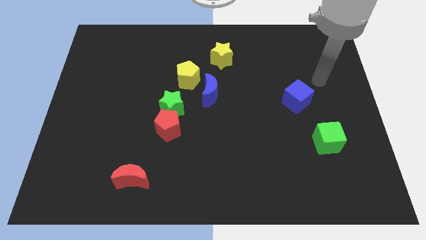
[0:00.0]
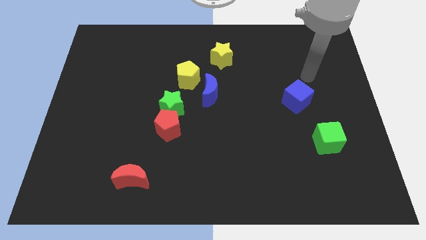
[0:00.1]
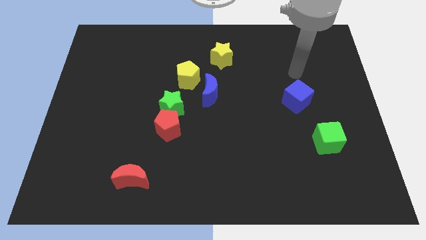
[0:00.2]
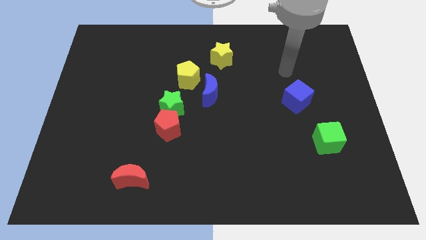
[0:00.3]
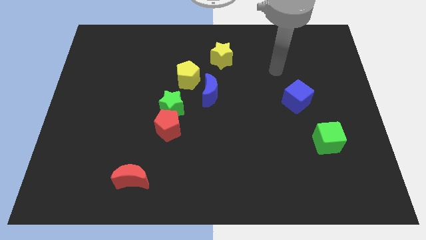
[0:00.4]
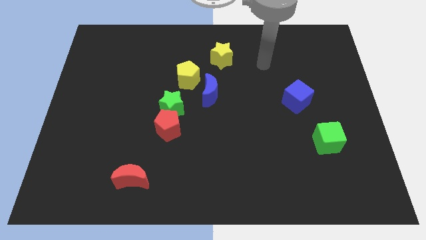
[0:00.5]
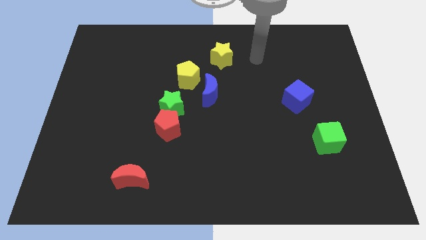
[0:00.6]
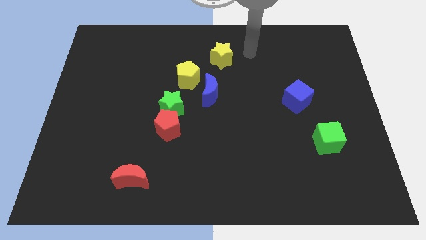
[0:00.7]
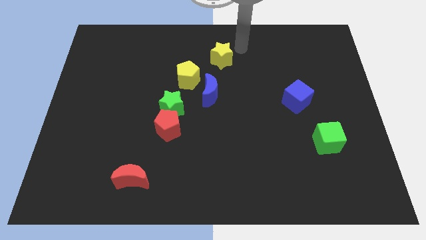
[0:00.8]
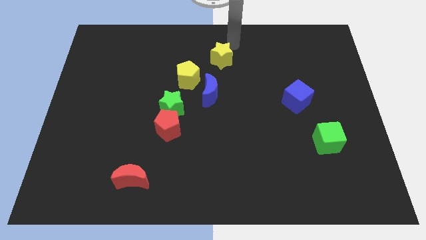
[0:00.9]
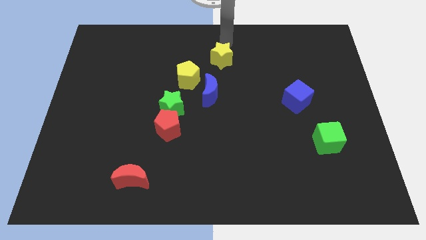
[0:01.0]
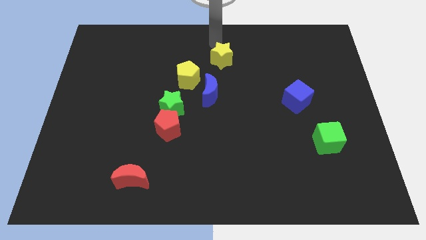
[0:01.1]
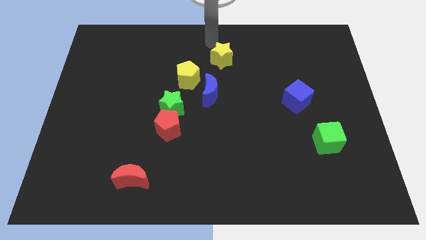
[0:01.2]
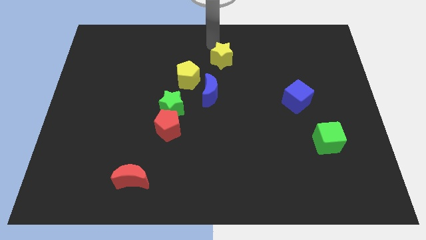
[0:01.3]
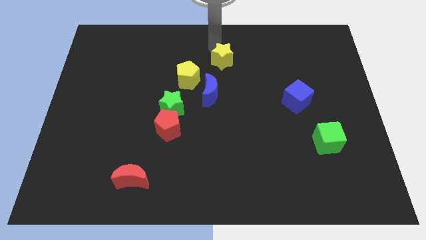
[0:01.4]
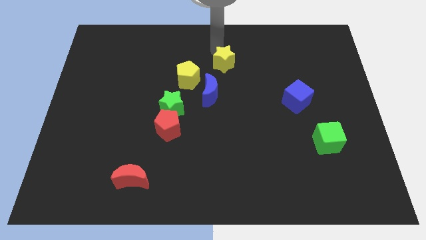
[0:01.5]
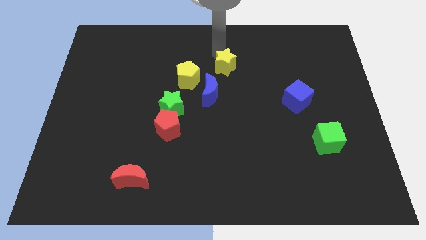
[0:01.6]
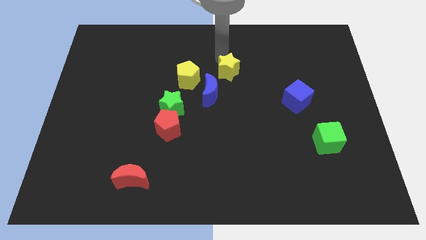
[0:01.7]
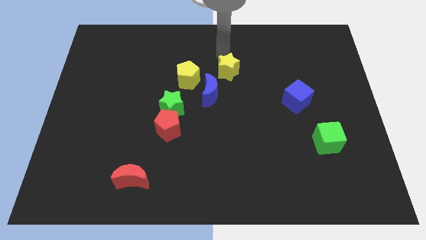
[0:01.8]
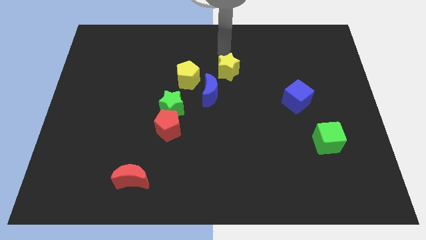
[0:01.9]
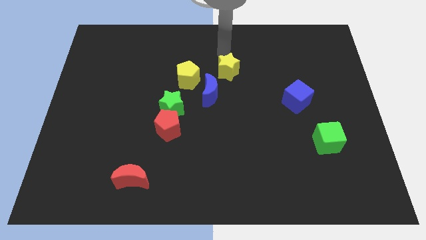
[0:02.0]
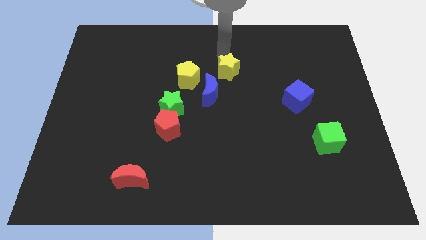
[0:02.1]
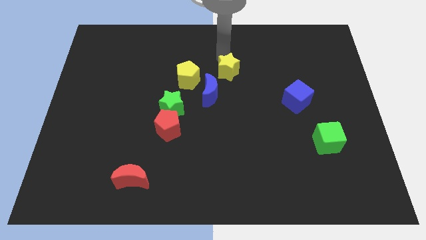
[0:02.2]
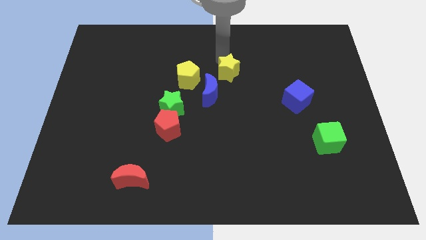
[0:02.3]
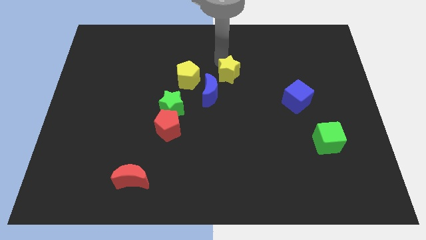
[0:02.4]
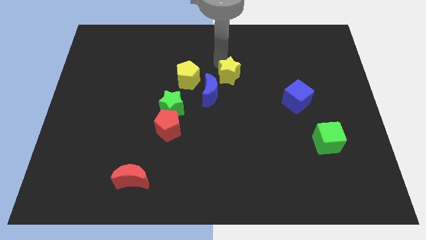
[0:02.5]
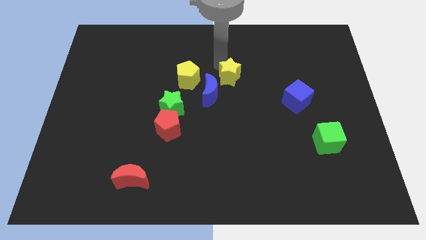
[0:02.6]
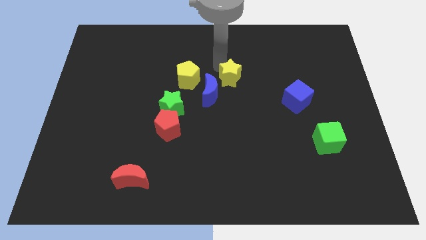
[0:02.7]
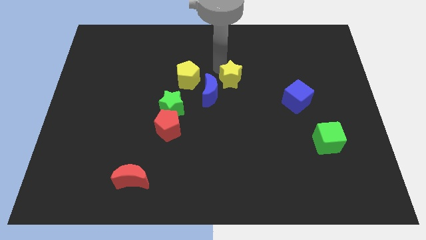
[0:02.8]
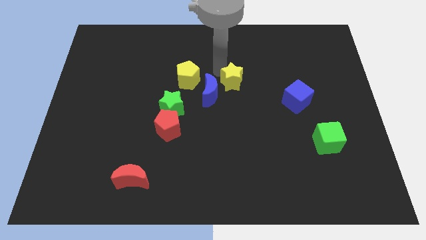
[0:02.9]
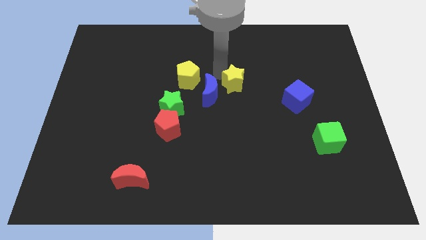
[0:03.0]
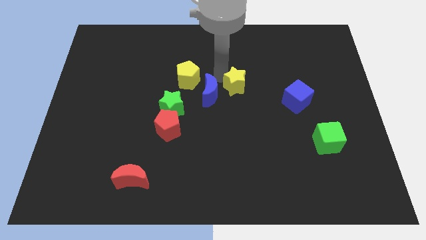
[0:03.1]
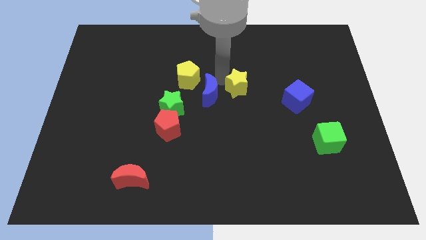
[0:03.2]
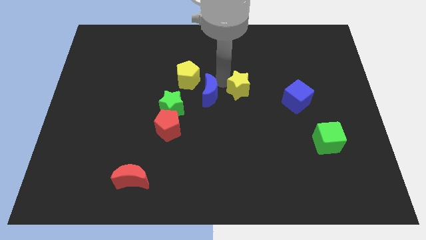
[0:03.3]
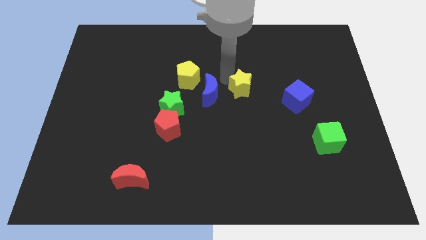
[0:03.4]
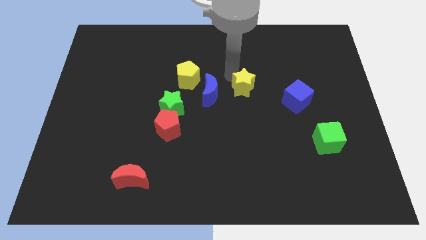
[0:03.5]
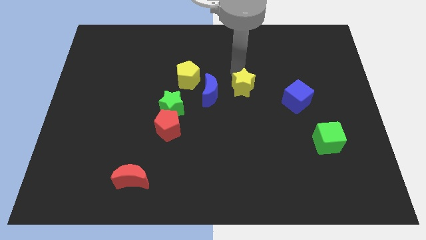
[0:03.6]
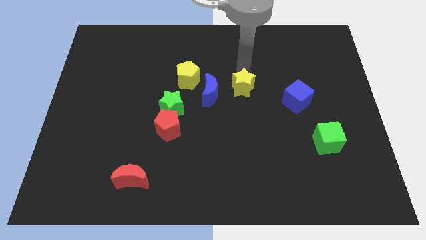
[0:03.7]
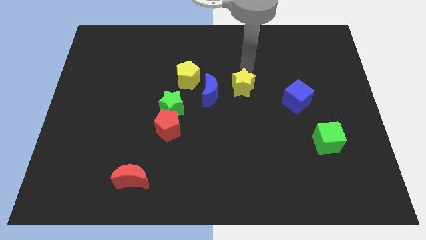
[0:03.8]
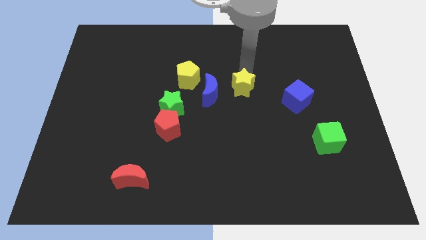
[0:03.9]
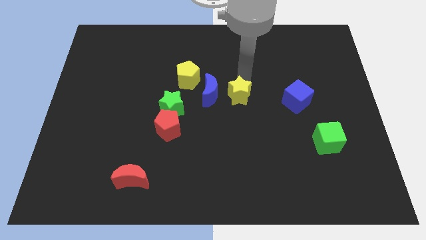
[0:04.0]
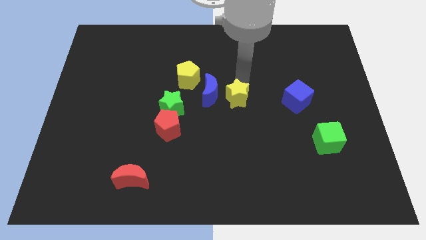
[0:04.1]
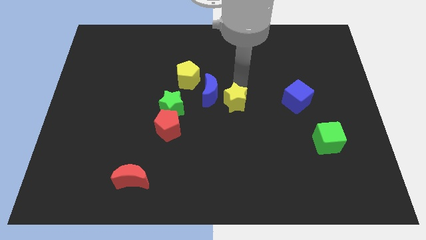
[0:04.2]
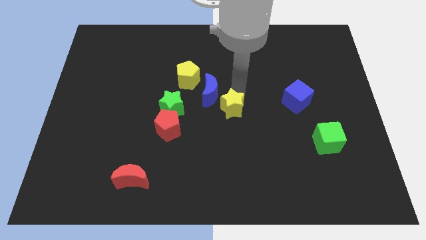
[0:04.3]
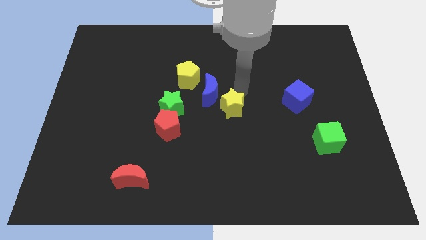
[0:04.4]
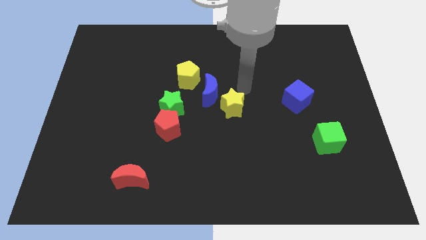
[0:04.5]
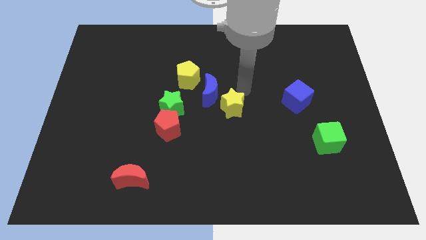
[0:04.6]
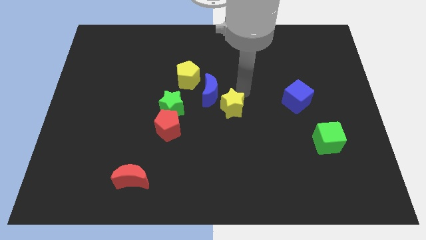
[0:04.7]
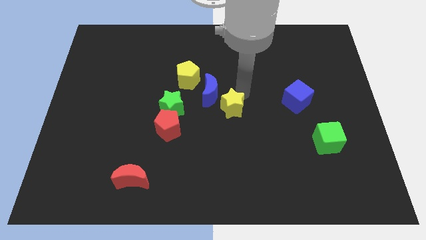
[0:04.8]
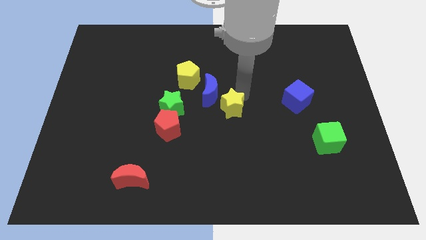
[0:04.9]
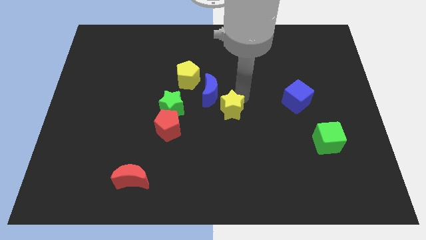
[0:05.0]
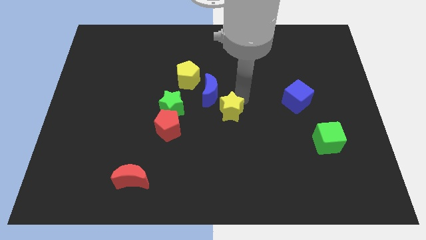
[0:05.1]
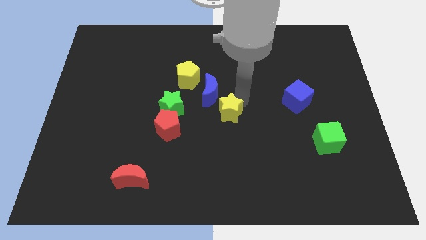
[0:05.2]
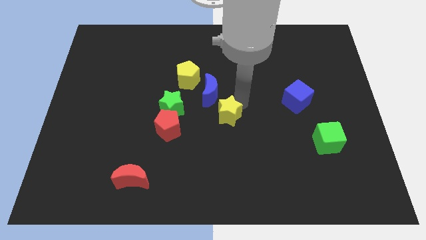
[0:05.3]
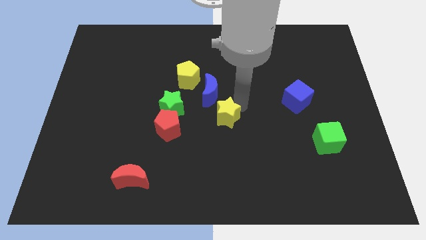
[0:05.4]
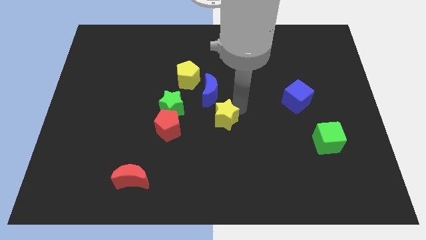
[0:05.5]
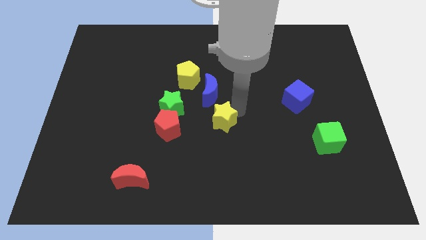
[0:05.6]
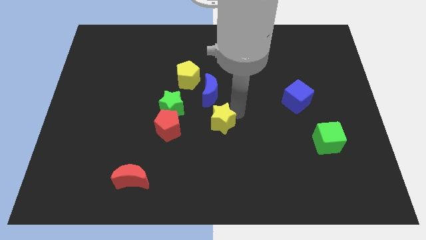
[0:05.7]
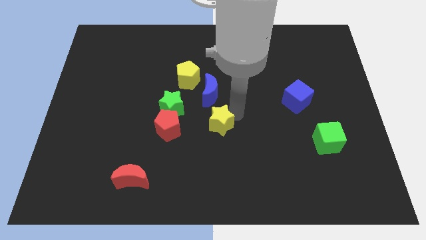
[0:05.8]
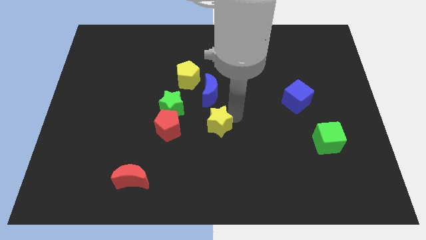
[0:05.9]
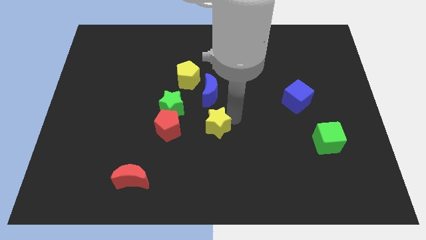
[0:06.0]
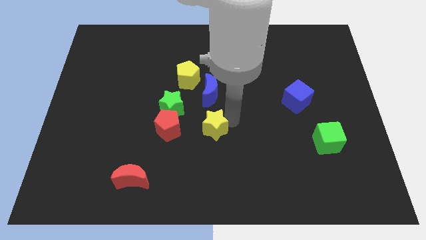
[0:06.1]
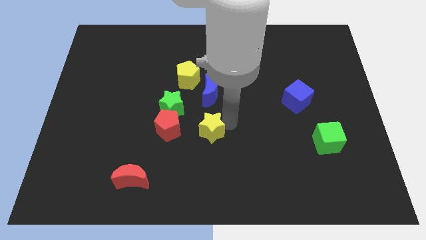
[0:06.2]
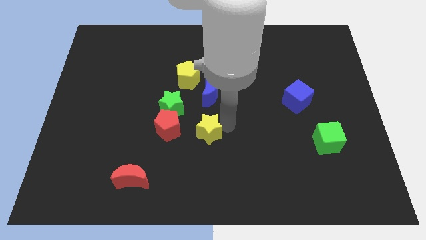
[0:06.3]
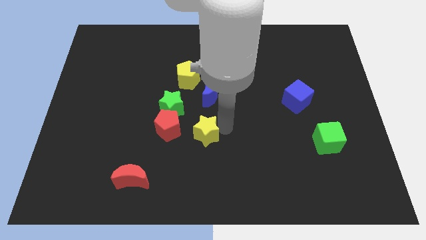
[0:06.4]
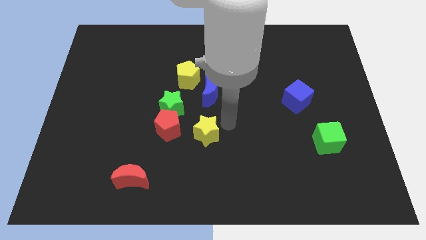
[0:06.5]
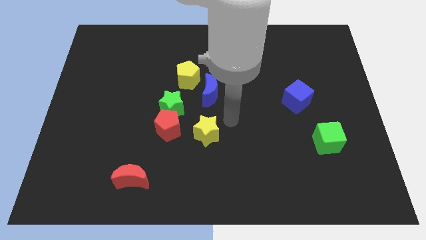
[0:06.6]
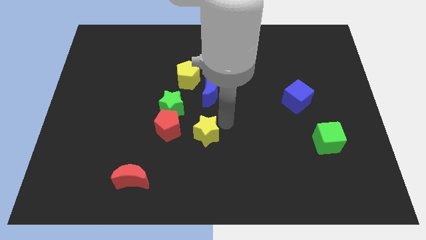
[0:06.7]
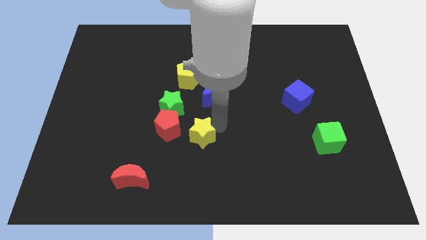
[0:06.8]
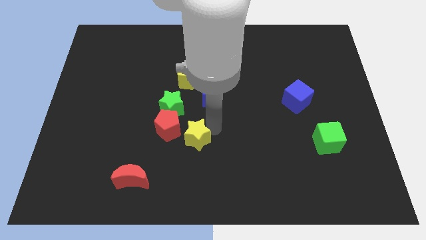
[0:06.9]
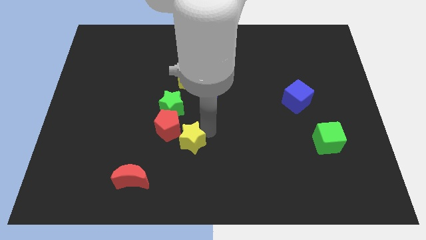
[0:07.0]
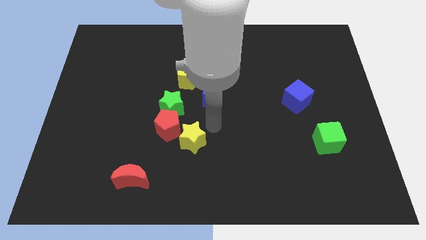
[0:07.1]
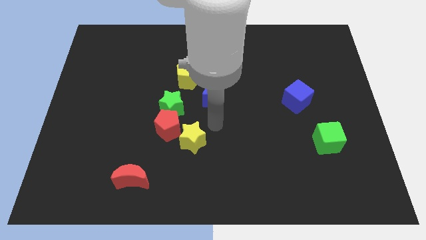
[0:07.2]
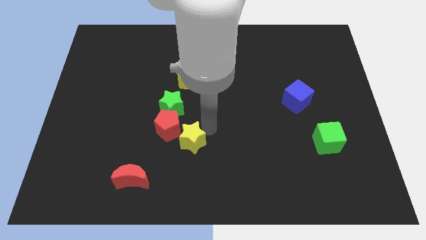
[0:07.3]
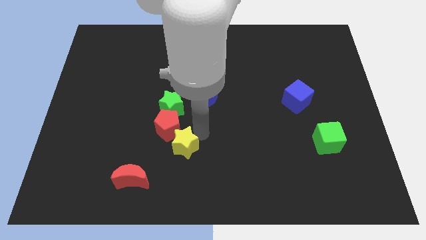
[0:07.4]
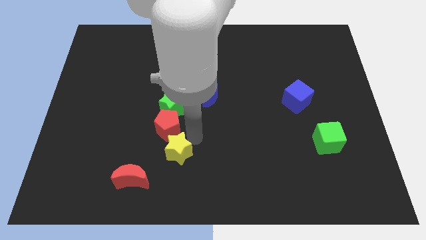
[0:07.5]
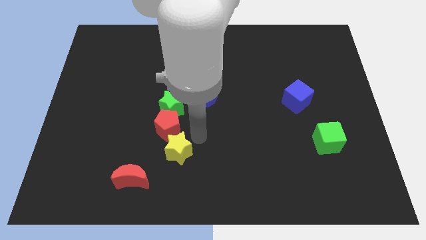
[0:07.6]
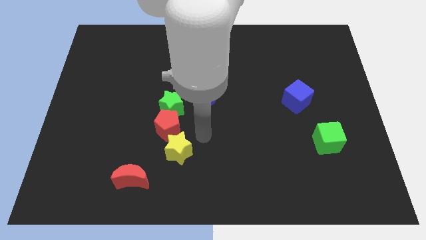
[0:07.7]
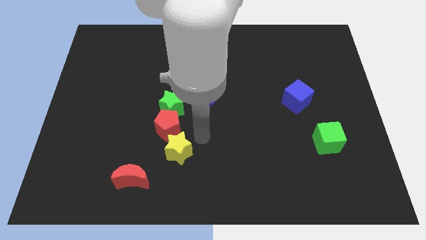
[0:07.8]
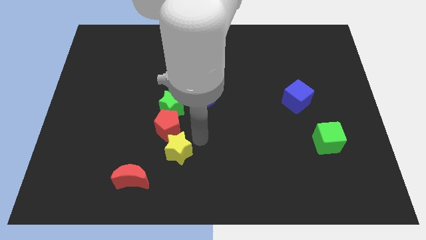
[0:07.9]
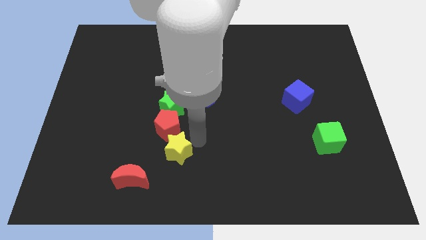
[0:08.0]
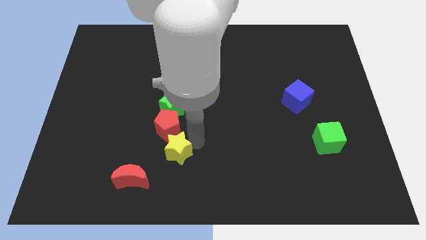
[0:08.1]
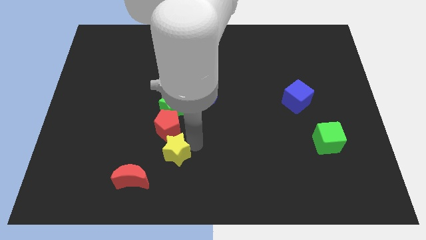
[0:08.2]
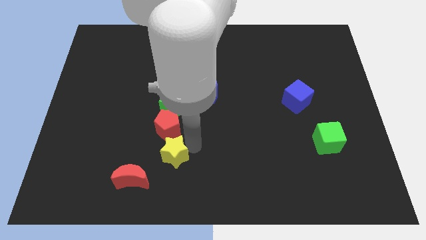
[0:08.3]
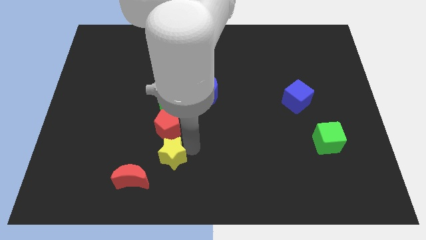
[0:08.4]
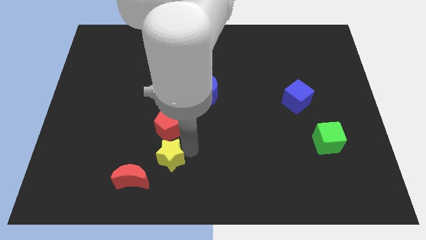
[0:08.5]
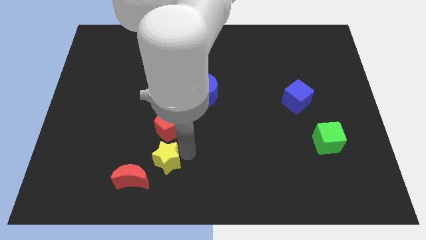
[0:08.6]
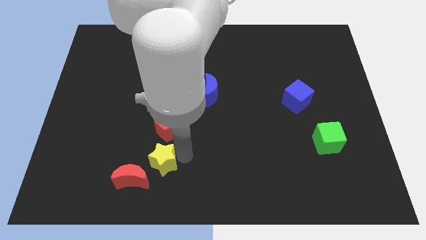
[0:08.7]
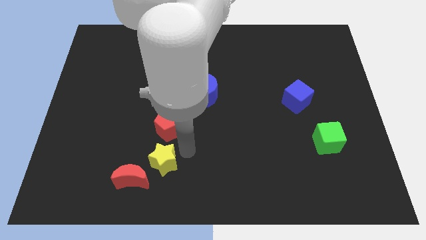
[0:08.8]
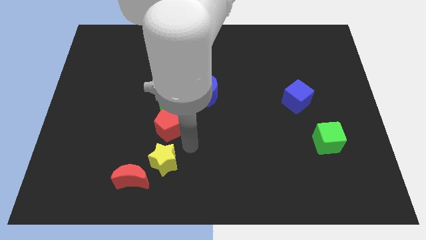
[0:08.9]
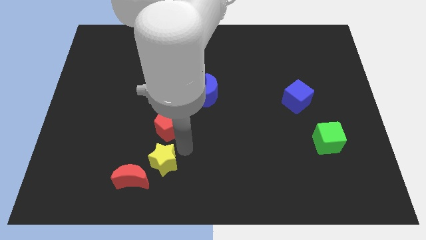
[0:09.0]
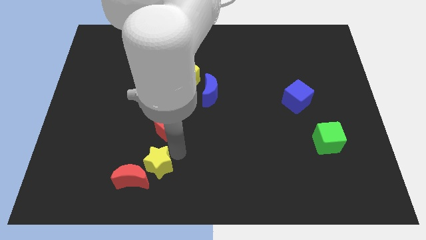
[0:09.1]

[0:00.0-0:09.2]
put the yellow star next to the red moon
